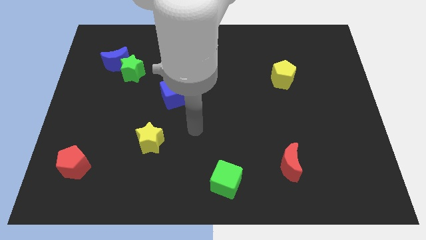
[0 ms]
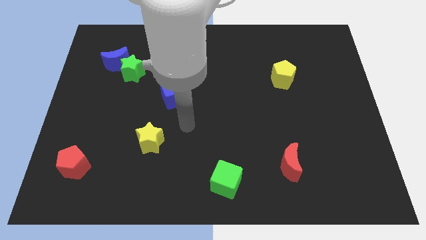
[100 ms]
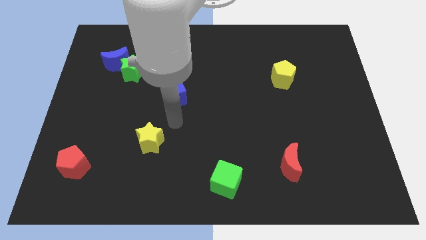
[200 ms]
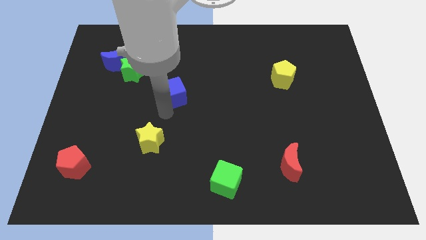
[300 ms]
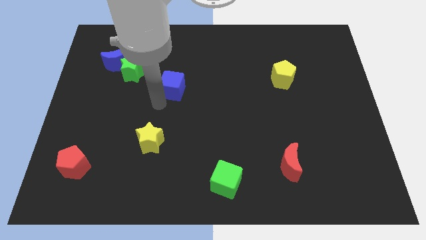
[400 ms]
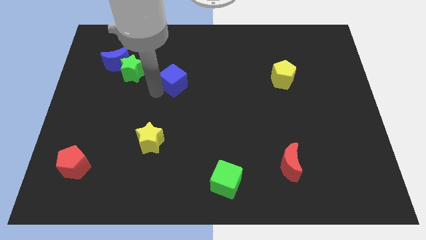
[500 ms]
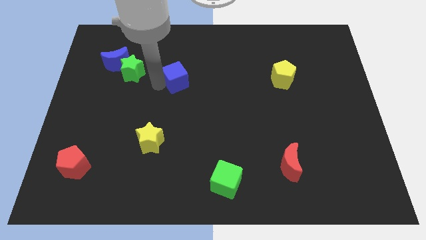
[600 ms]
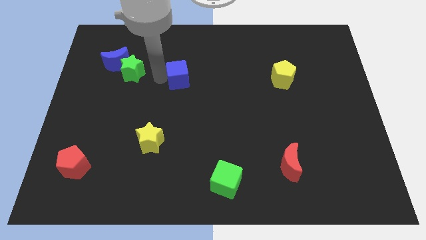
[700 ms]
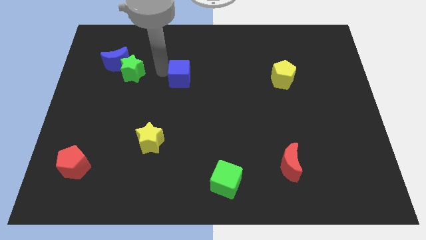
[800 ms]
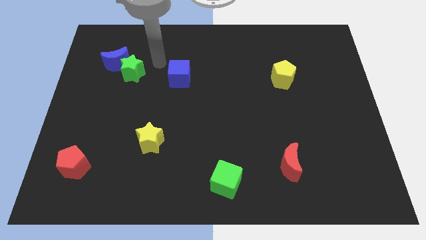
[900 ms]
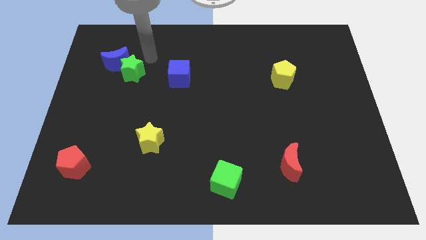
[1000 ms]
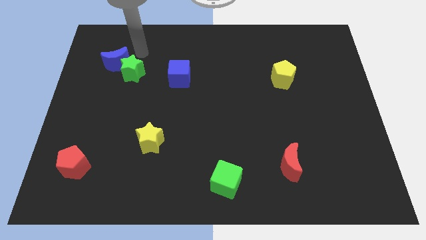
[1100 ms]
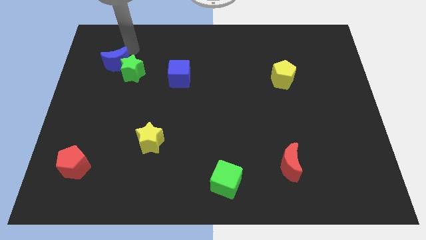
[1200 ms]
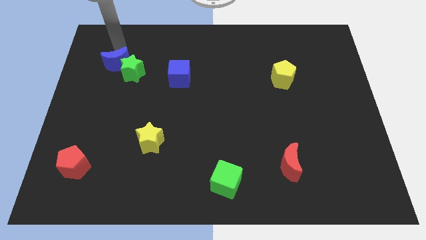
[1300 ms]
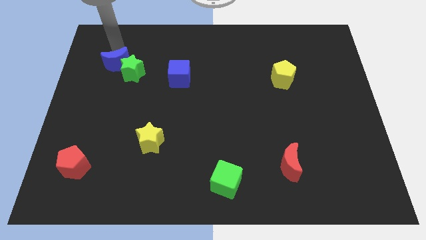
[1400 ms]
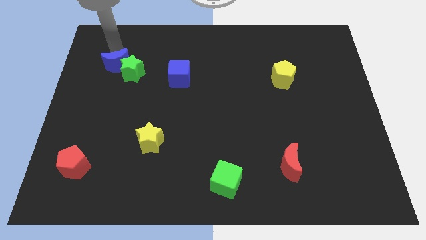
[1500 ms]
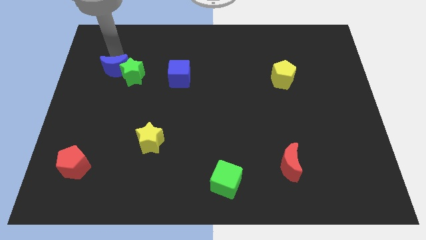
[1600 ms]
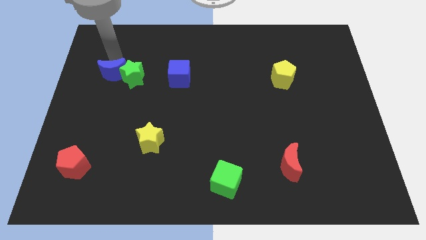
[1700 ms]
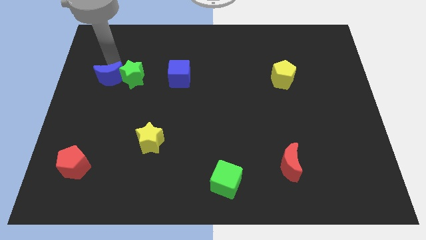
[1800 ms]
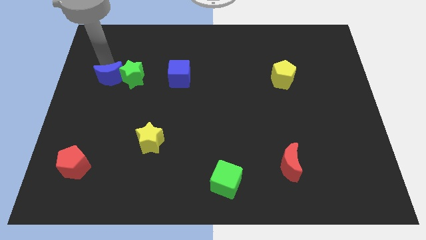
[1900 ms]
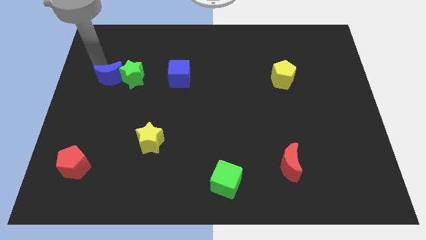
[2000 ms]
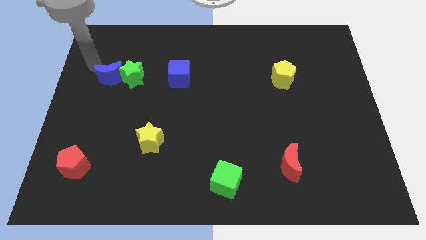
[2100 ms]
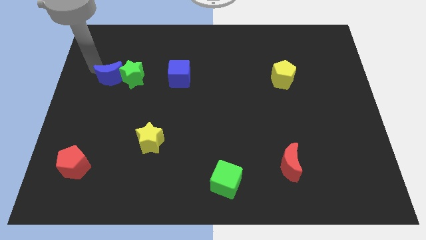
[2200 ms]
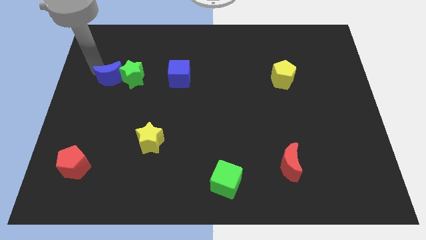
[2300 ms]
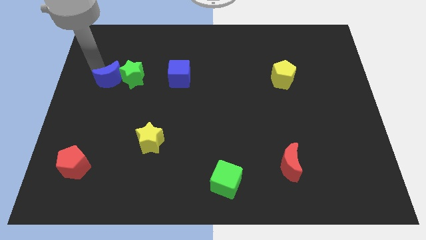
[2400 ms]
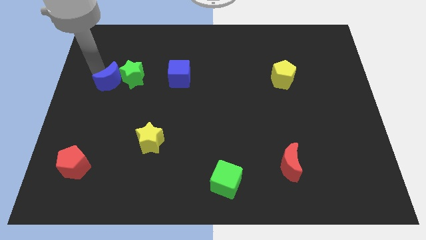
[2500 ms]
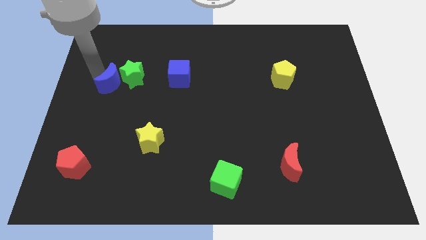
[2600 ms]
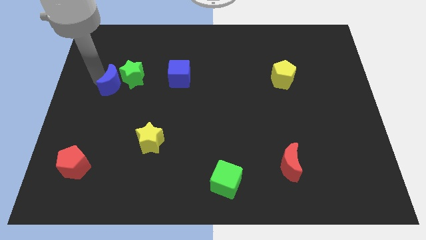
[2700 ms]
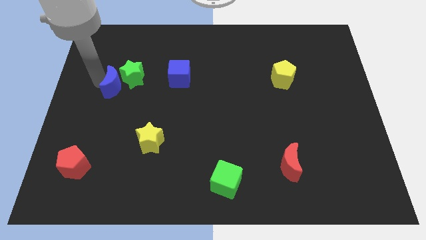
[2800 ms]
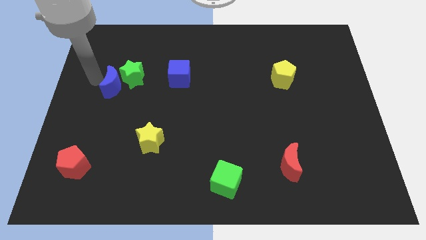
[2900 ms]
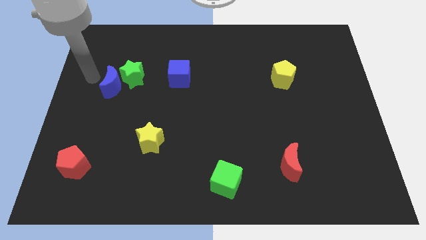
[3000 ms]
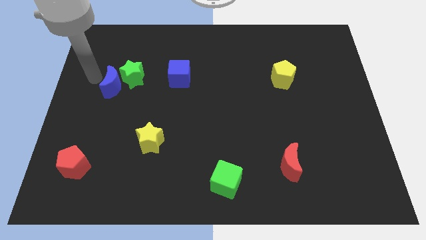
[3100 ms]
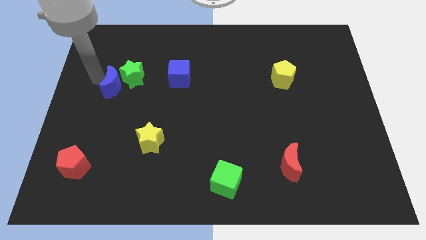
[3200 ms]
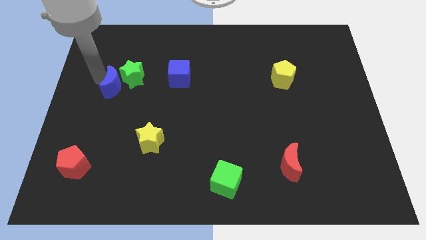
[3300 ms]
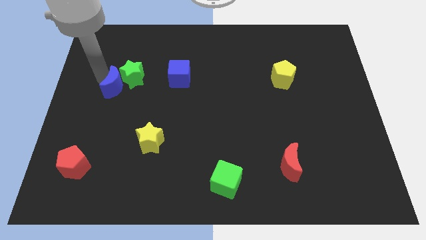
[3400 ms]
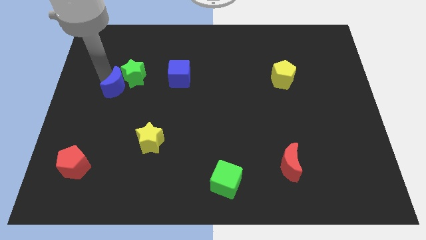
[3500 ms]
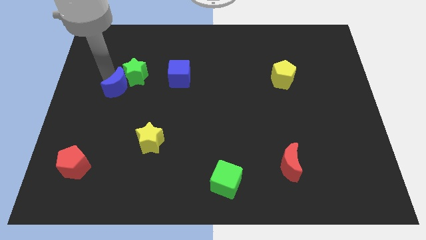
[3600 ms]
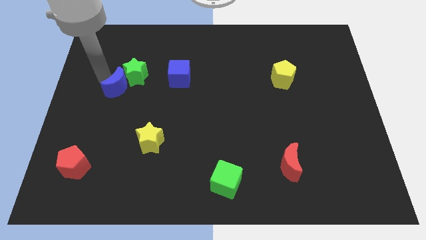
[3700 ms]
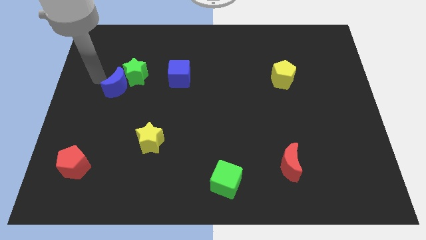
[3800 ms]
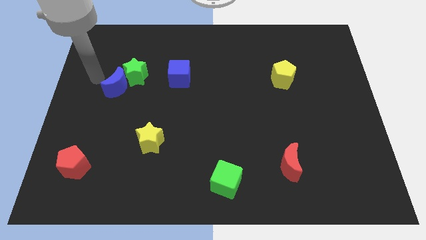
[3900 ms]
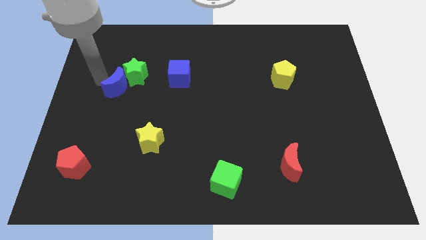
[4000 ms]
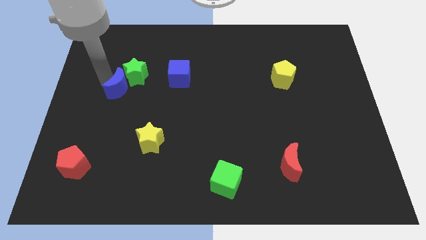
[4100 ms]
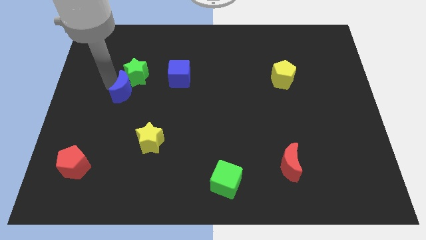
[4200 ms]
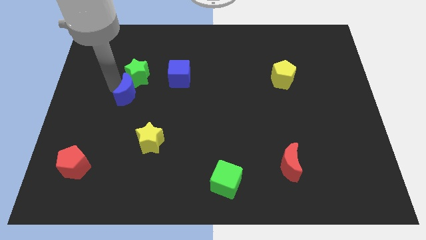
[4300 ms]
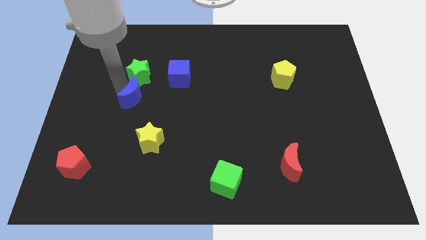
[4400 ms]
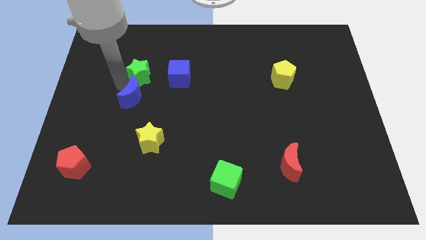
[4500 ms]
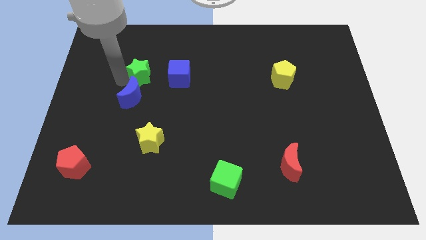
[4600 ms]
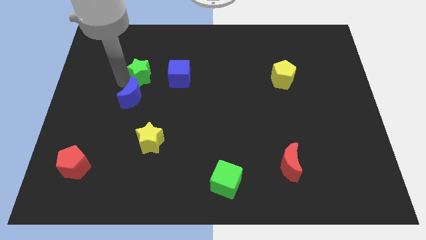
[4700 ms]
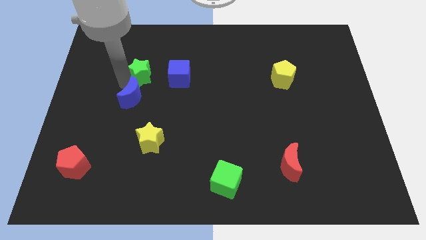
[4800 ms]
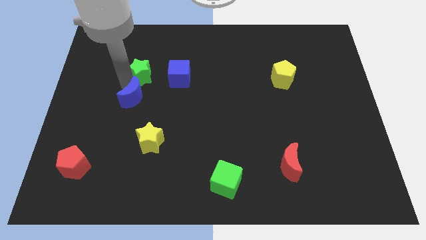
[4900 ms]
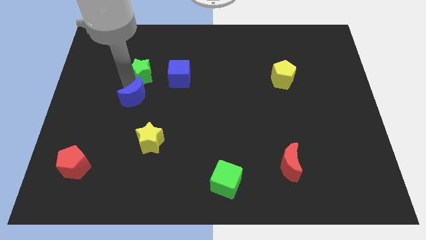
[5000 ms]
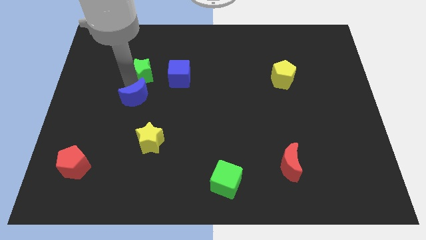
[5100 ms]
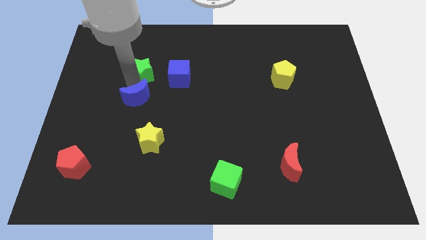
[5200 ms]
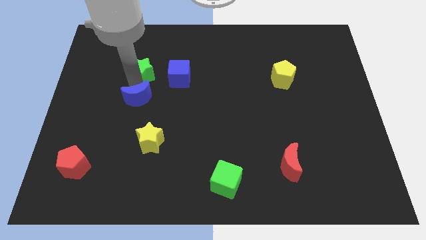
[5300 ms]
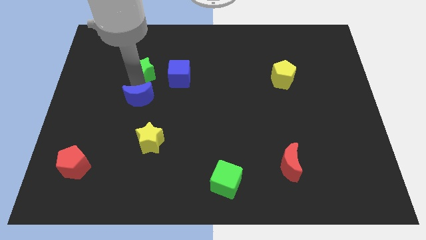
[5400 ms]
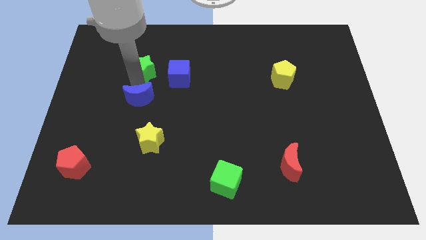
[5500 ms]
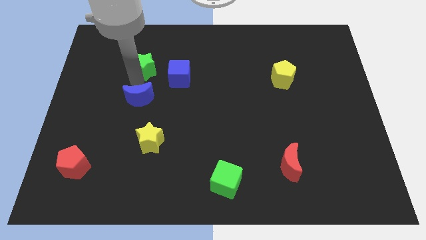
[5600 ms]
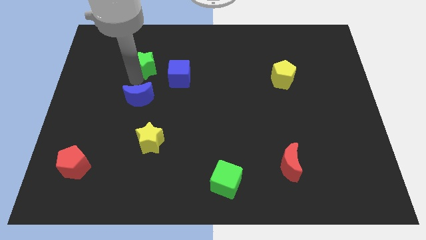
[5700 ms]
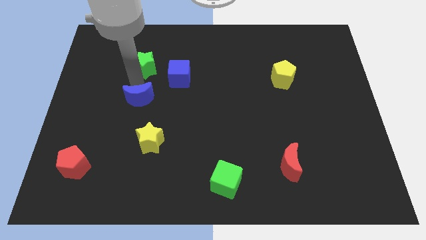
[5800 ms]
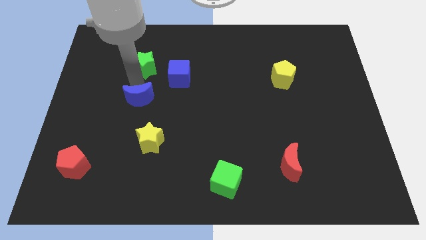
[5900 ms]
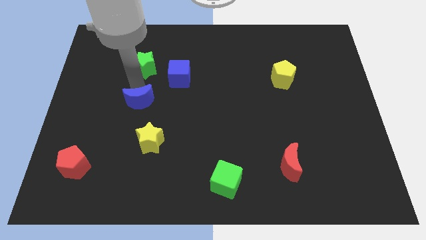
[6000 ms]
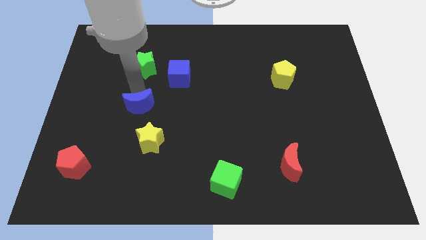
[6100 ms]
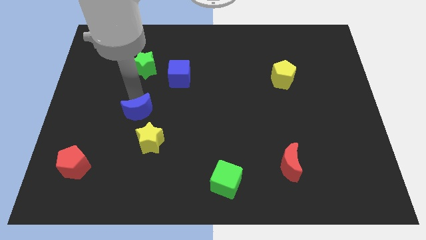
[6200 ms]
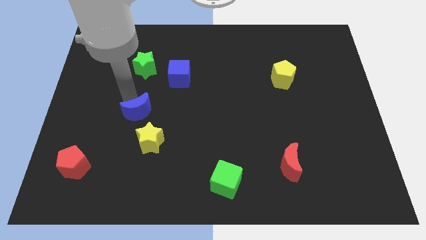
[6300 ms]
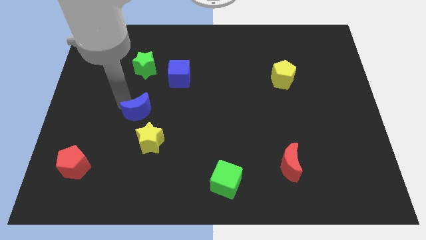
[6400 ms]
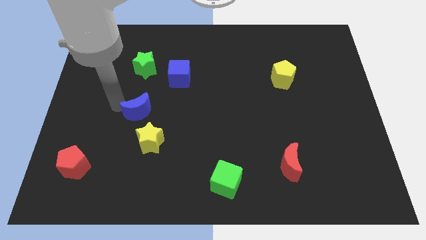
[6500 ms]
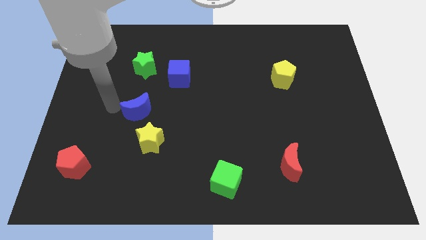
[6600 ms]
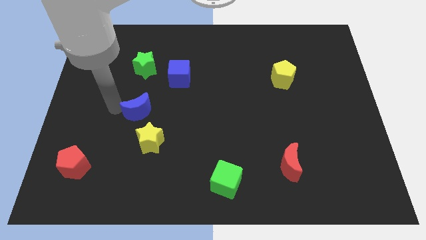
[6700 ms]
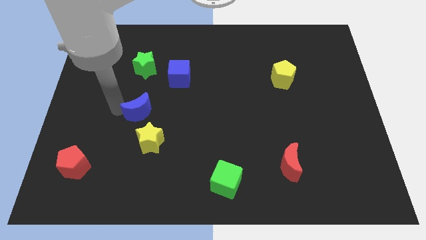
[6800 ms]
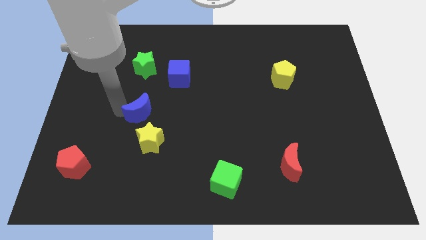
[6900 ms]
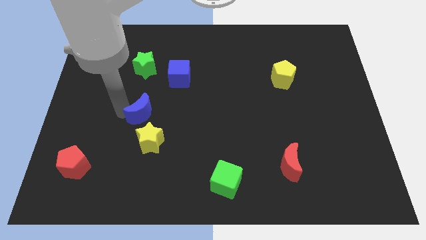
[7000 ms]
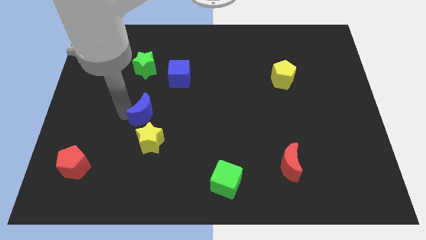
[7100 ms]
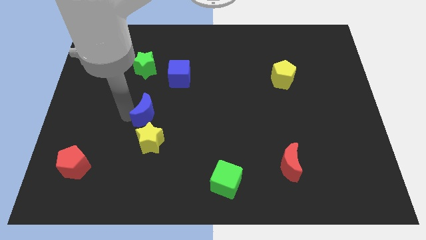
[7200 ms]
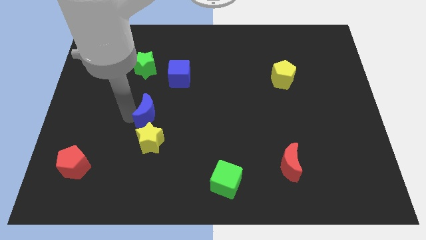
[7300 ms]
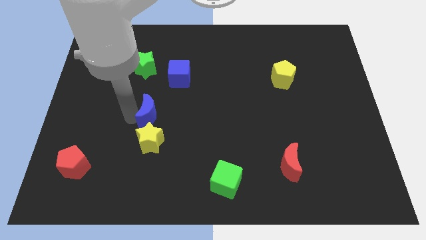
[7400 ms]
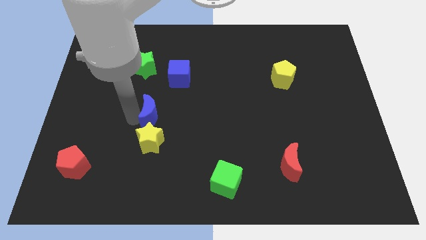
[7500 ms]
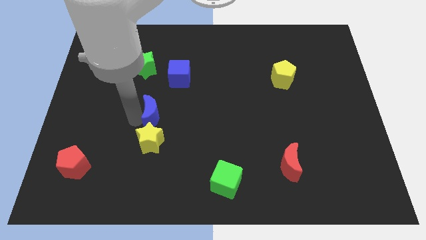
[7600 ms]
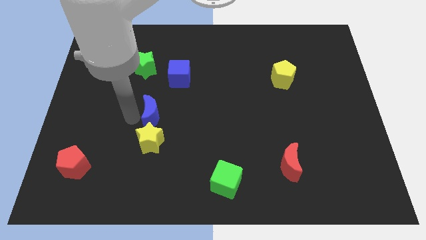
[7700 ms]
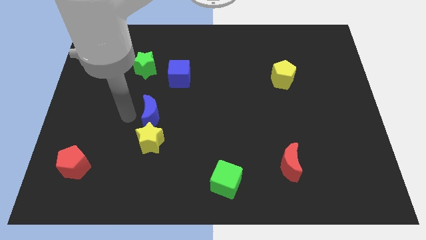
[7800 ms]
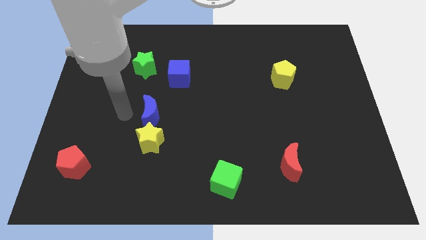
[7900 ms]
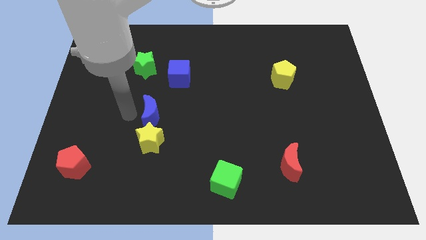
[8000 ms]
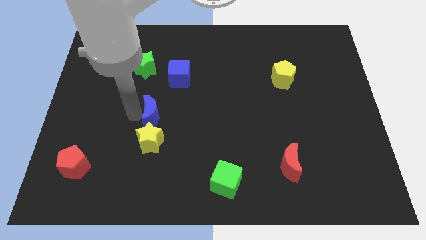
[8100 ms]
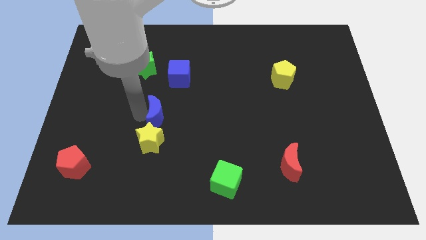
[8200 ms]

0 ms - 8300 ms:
push the blue moon diagonally down and to the right
